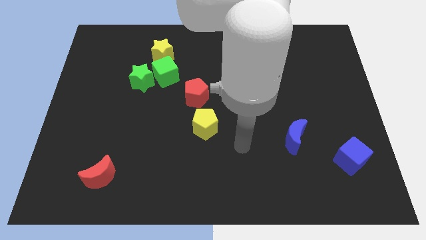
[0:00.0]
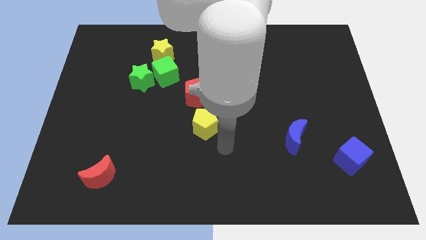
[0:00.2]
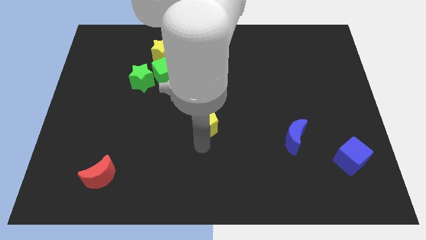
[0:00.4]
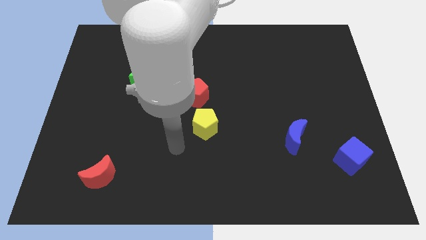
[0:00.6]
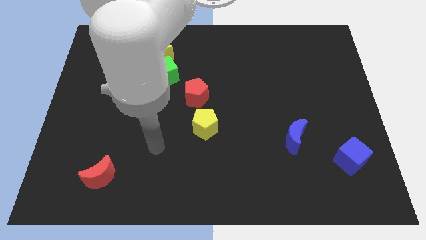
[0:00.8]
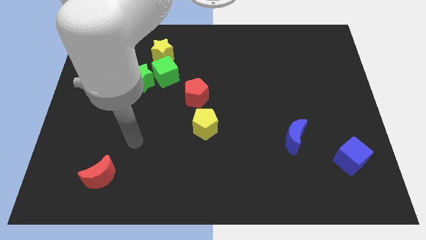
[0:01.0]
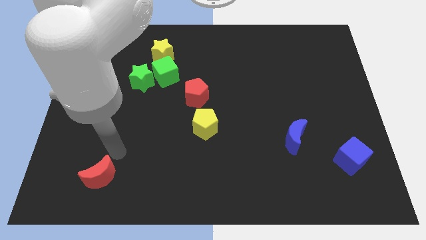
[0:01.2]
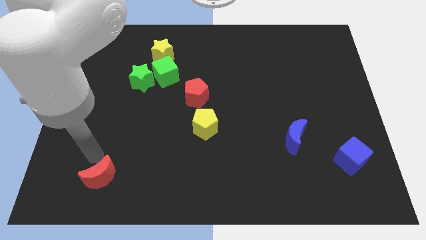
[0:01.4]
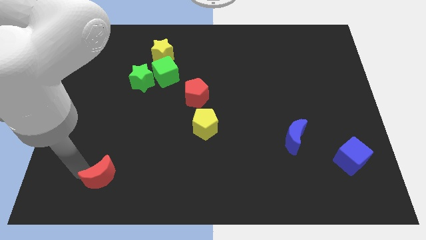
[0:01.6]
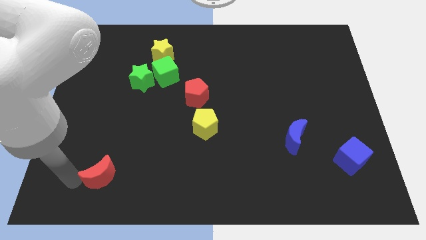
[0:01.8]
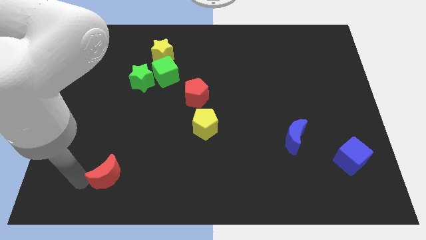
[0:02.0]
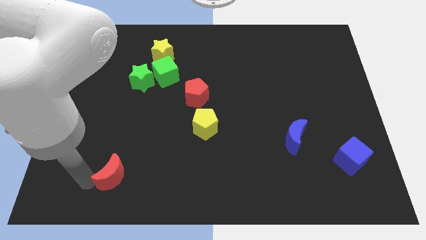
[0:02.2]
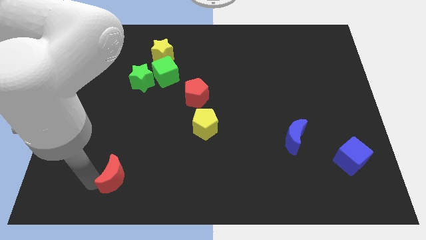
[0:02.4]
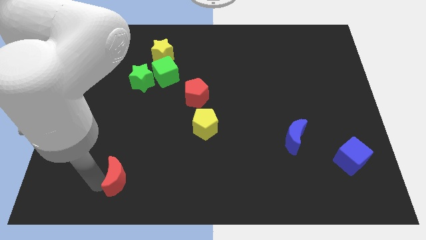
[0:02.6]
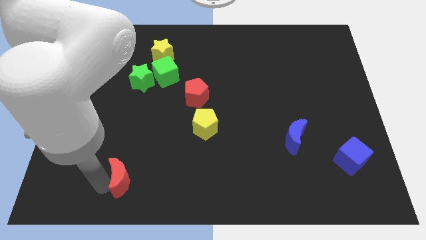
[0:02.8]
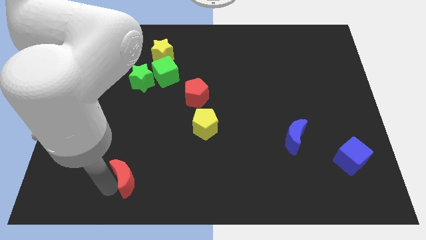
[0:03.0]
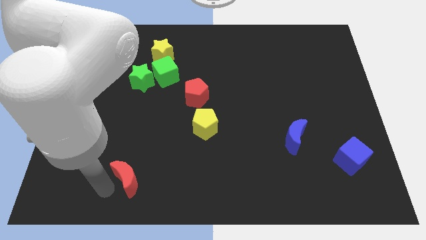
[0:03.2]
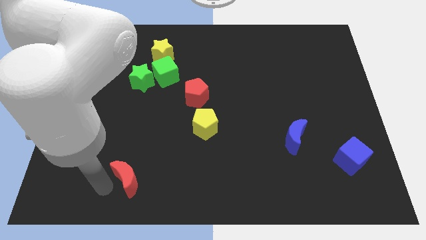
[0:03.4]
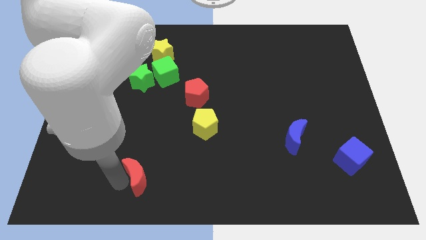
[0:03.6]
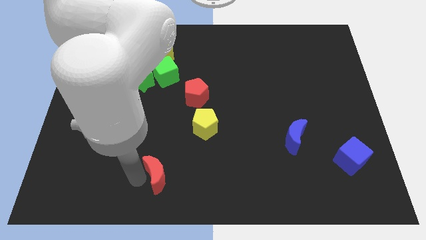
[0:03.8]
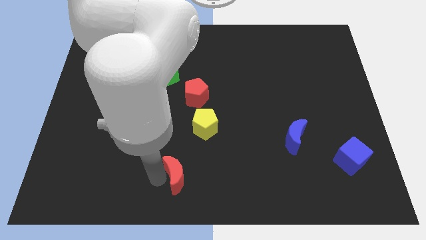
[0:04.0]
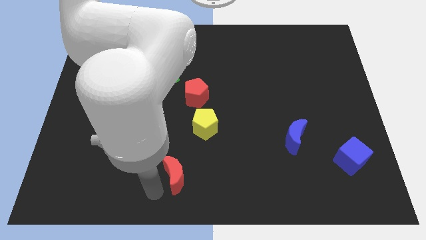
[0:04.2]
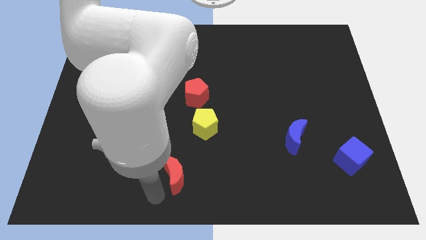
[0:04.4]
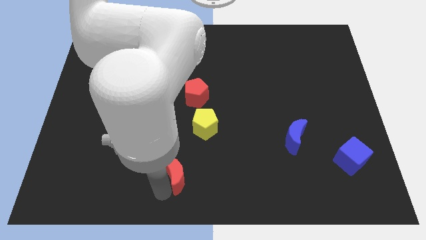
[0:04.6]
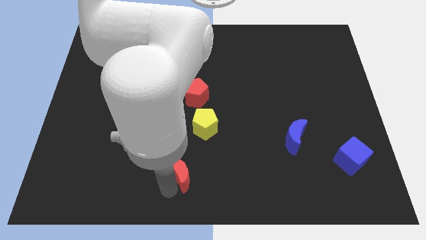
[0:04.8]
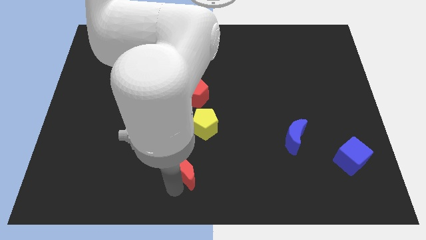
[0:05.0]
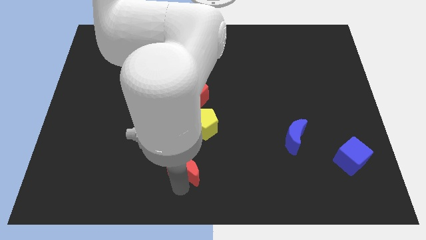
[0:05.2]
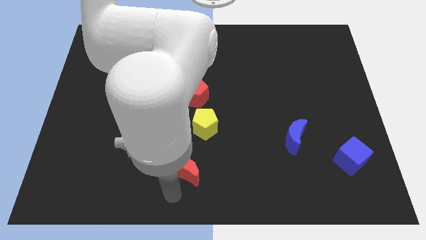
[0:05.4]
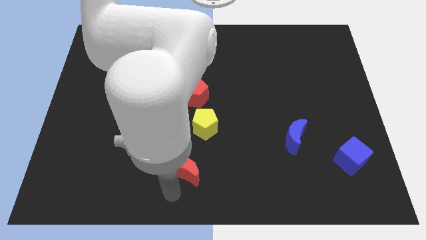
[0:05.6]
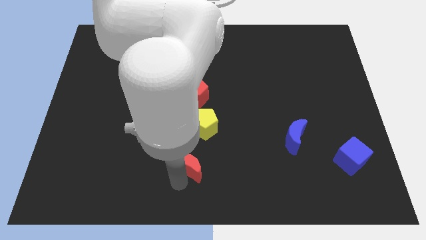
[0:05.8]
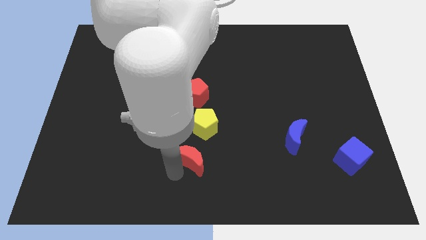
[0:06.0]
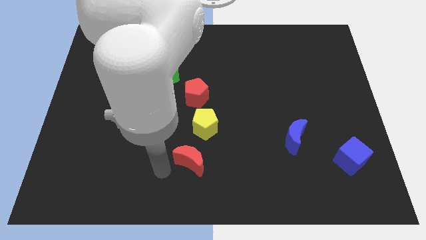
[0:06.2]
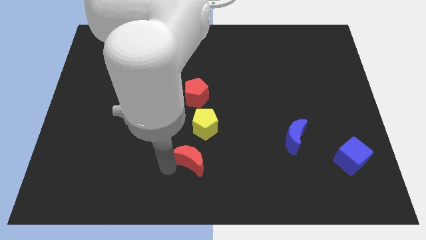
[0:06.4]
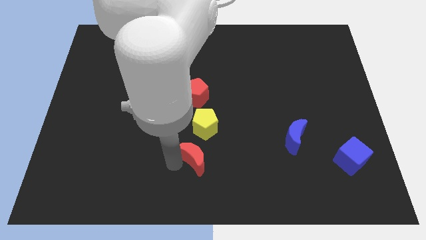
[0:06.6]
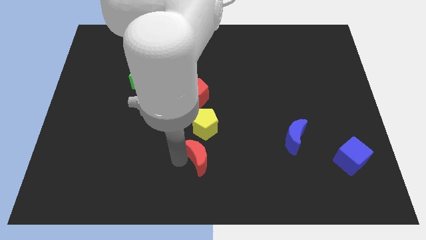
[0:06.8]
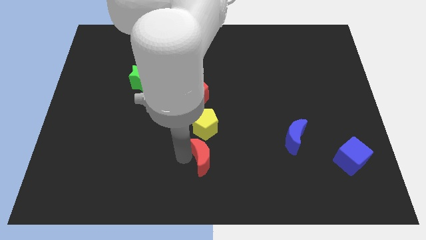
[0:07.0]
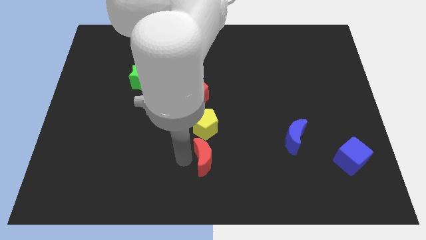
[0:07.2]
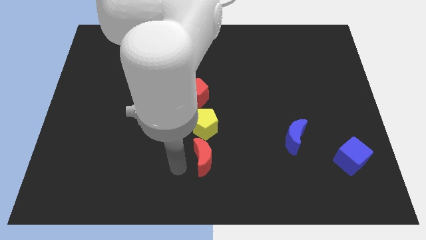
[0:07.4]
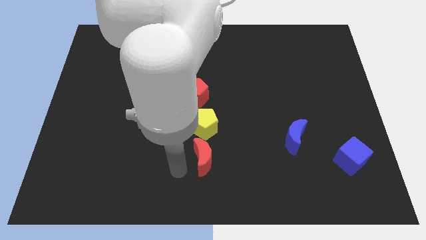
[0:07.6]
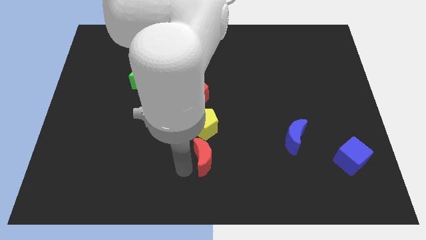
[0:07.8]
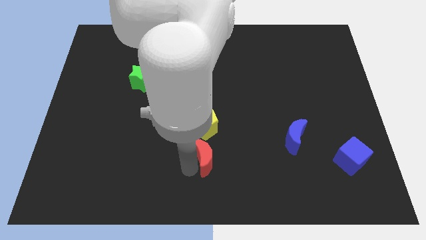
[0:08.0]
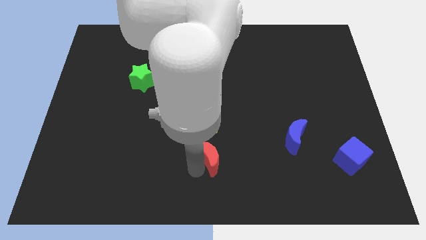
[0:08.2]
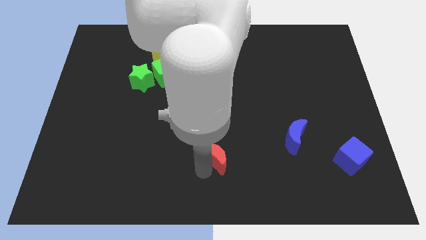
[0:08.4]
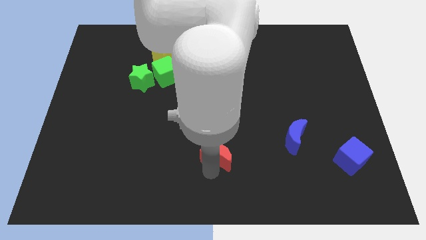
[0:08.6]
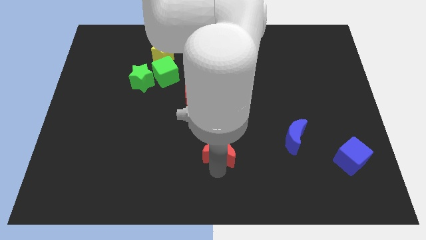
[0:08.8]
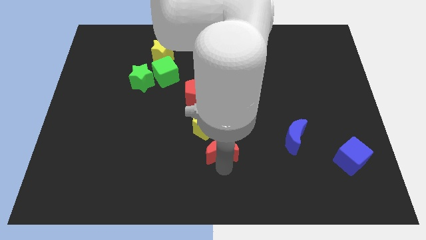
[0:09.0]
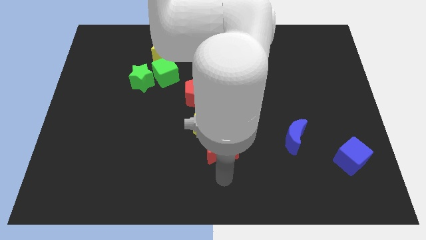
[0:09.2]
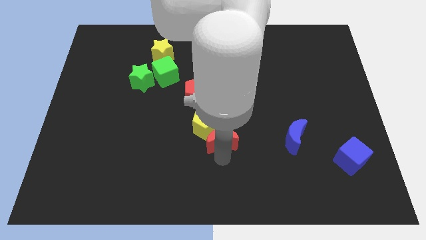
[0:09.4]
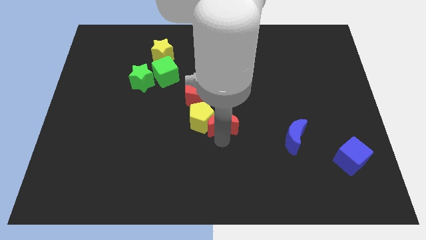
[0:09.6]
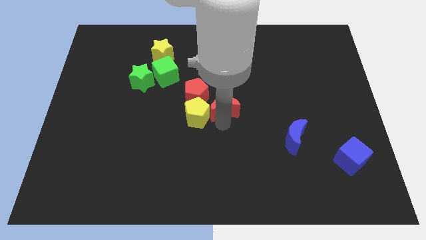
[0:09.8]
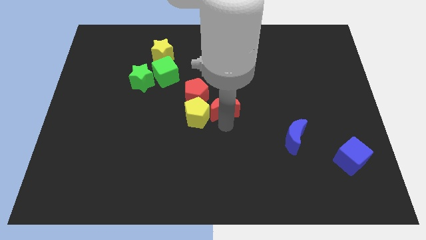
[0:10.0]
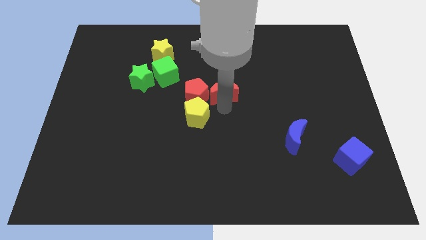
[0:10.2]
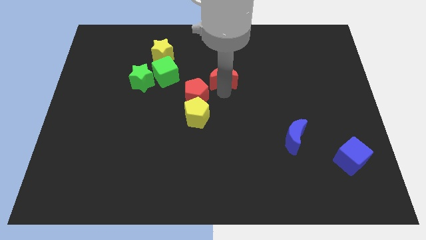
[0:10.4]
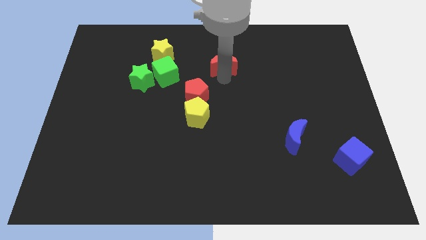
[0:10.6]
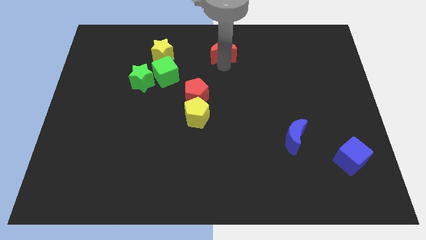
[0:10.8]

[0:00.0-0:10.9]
put the red moon to the towards your base
